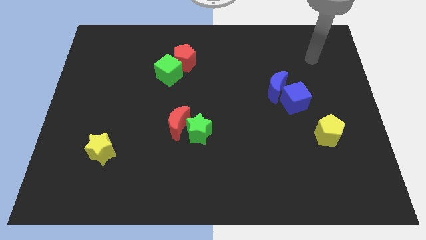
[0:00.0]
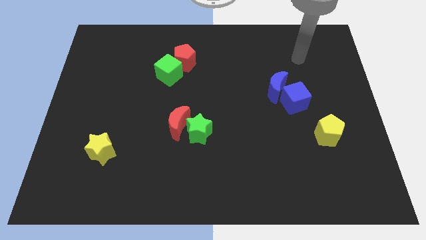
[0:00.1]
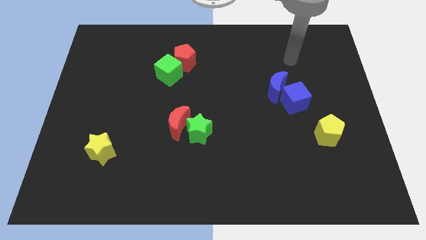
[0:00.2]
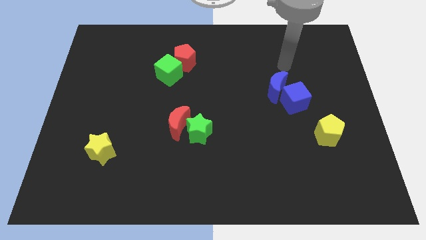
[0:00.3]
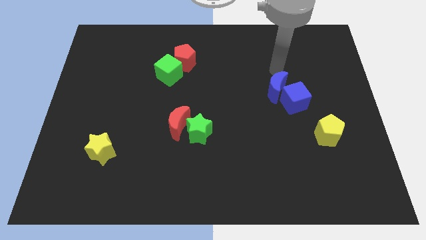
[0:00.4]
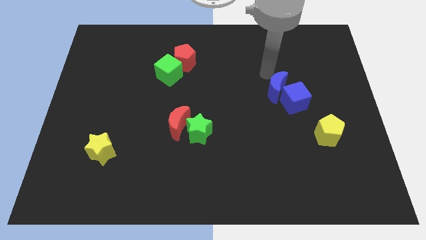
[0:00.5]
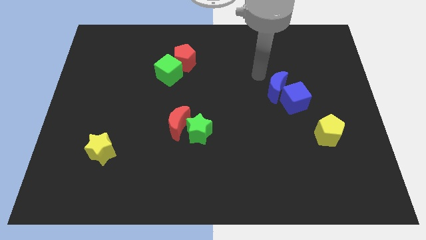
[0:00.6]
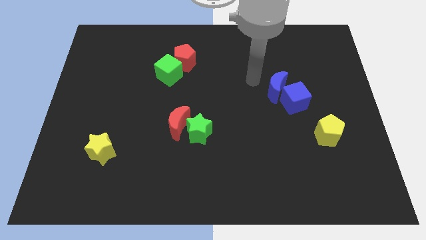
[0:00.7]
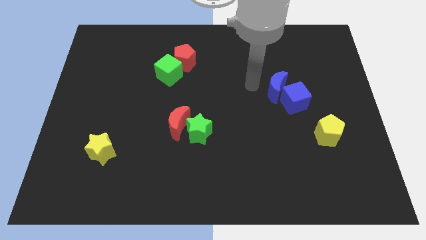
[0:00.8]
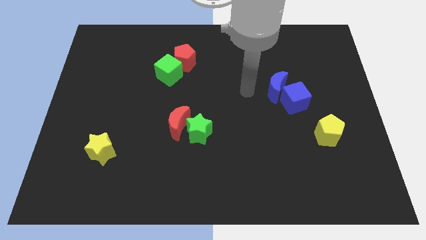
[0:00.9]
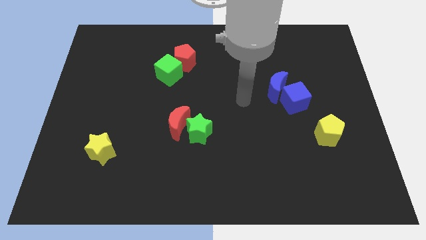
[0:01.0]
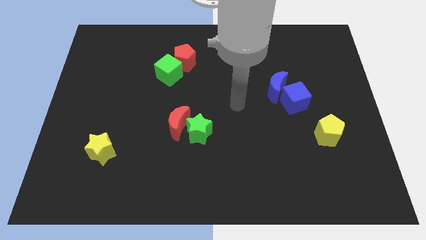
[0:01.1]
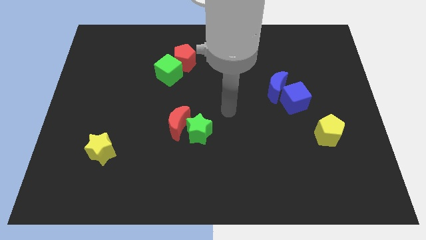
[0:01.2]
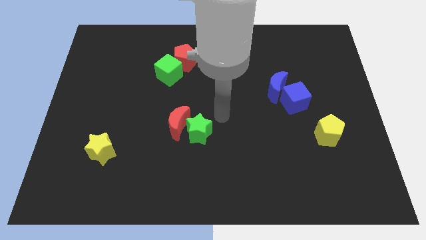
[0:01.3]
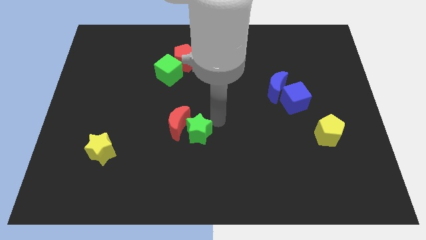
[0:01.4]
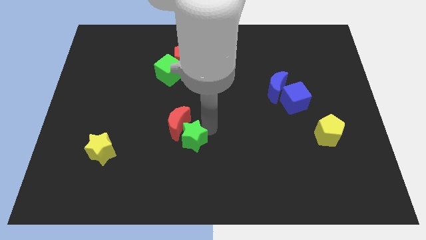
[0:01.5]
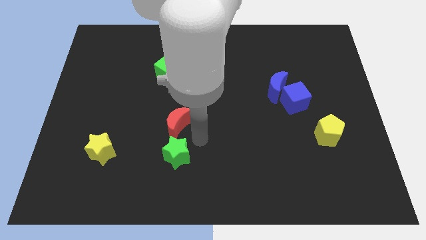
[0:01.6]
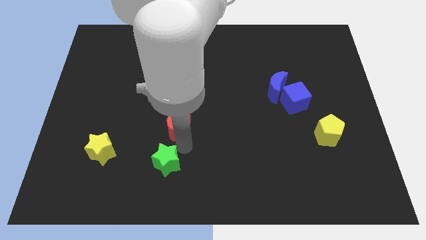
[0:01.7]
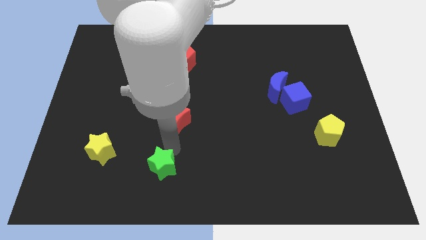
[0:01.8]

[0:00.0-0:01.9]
move the red moon away from the green star

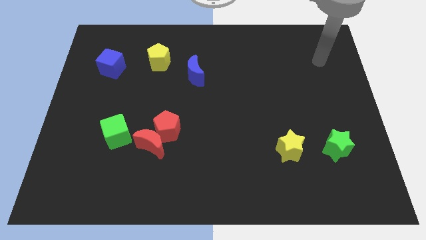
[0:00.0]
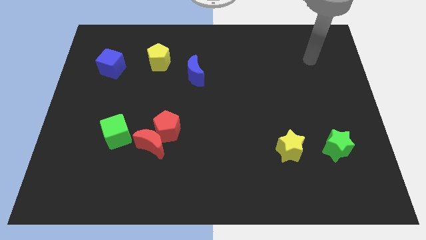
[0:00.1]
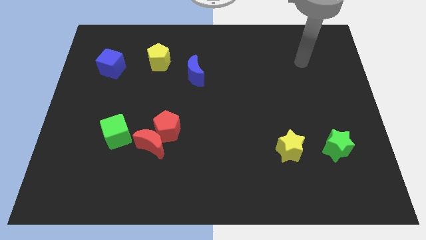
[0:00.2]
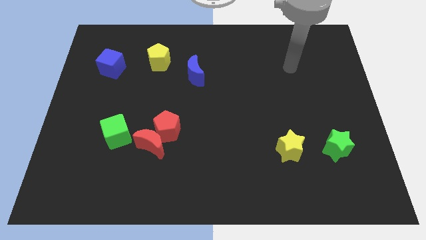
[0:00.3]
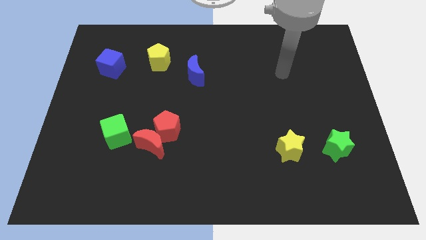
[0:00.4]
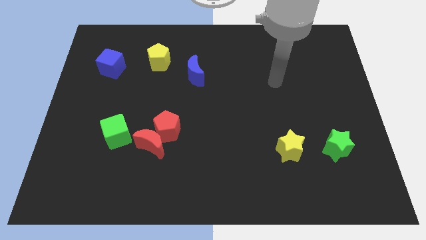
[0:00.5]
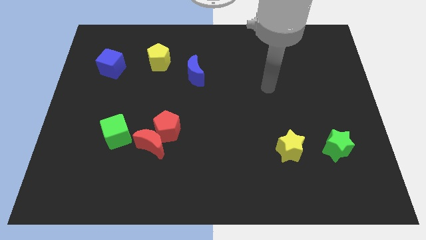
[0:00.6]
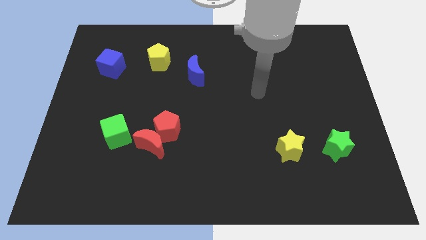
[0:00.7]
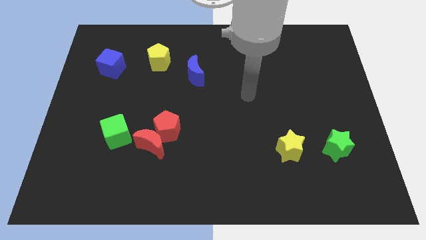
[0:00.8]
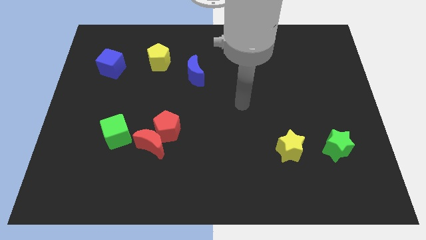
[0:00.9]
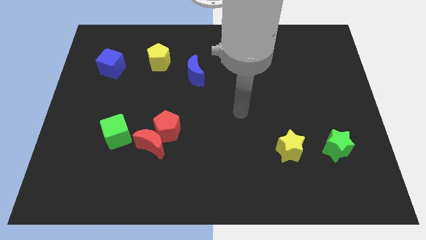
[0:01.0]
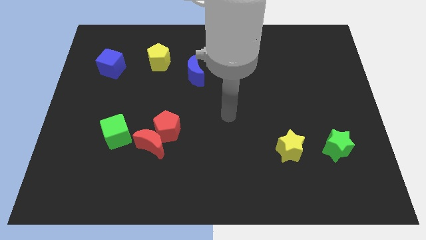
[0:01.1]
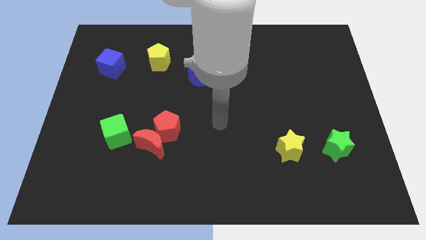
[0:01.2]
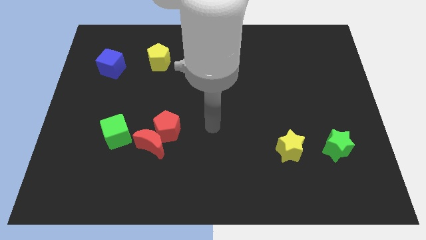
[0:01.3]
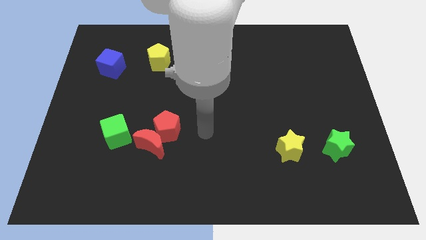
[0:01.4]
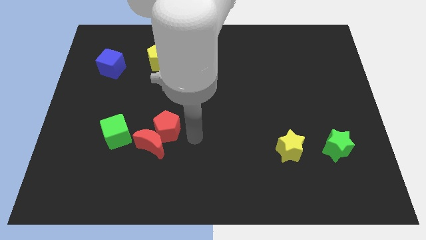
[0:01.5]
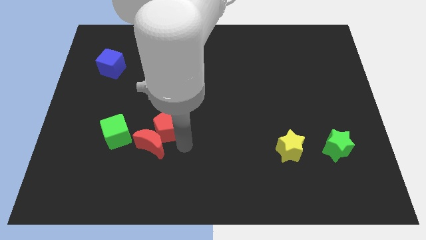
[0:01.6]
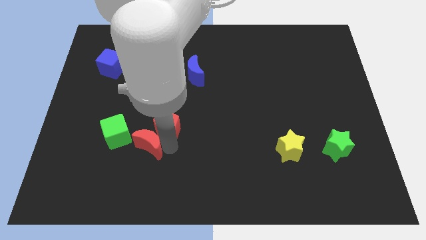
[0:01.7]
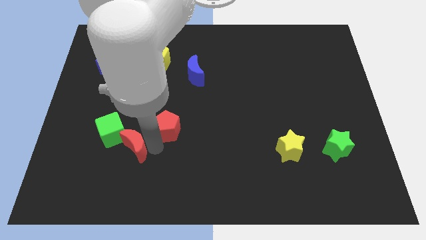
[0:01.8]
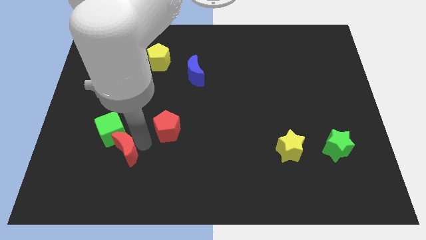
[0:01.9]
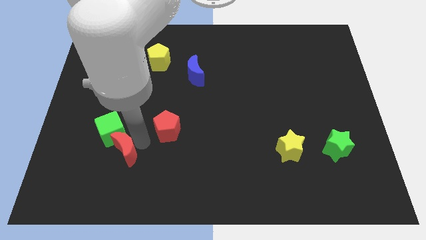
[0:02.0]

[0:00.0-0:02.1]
separate the red pentagon from the red moon

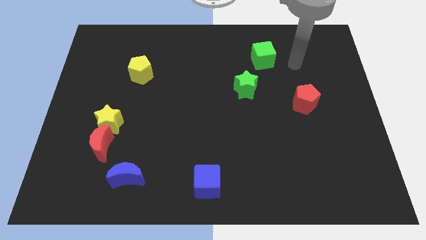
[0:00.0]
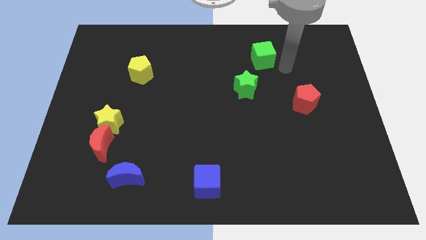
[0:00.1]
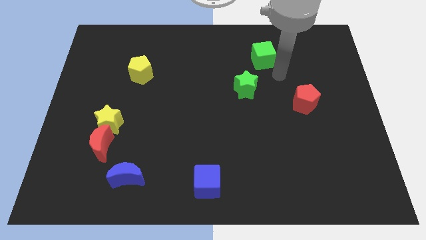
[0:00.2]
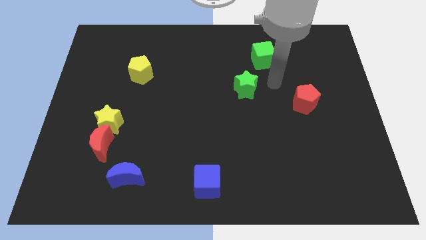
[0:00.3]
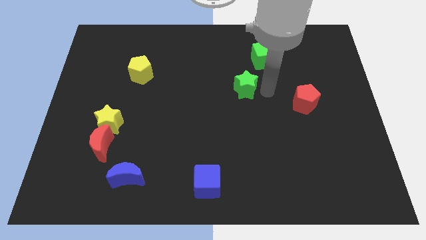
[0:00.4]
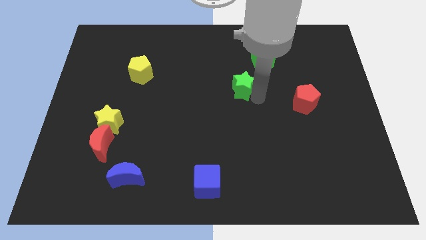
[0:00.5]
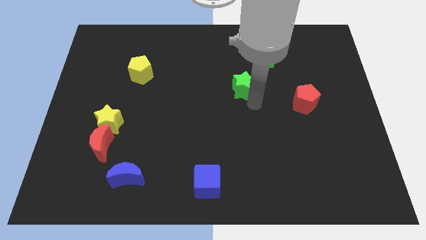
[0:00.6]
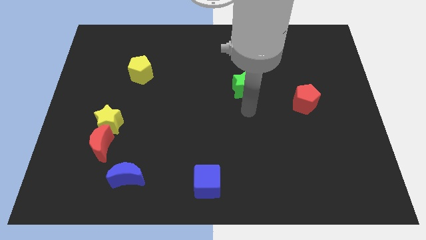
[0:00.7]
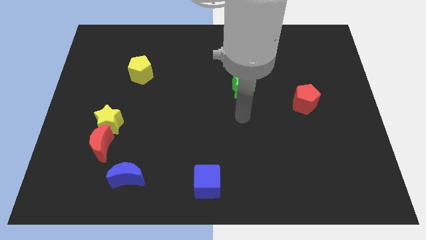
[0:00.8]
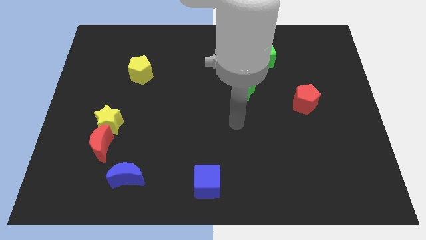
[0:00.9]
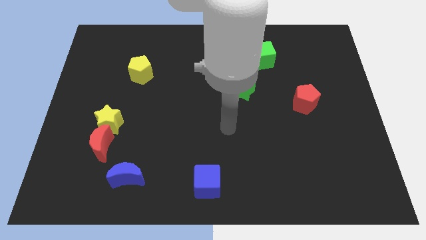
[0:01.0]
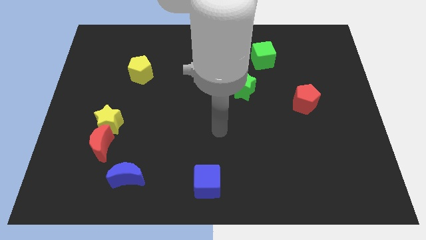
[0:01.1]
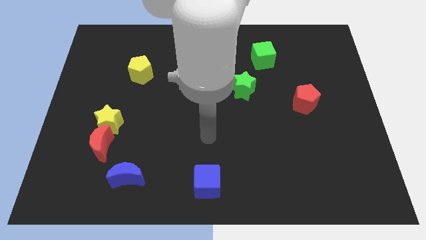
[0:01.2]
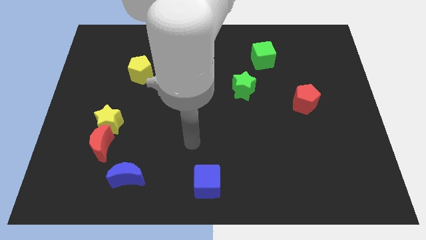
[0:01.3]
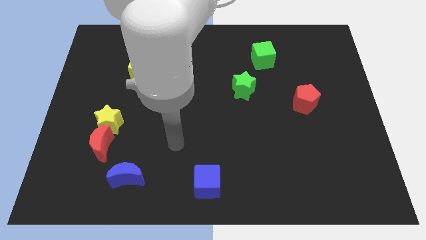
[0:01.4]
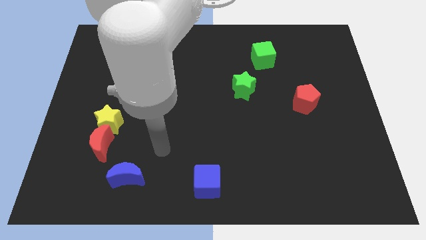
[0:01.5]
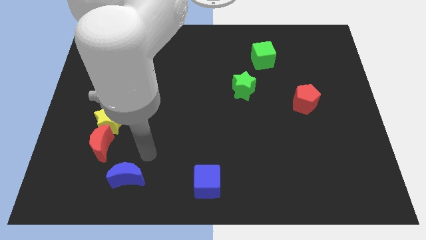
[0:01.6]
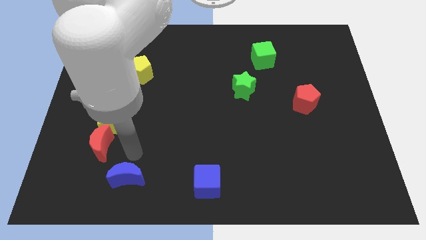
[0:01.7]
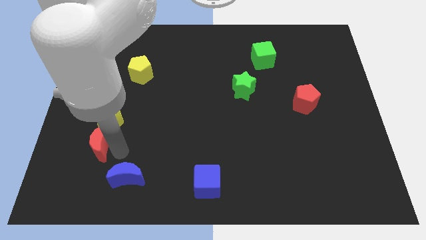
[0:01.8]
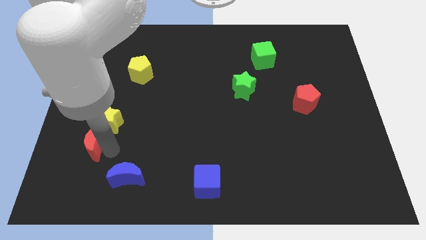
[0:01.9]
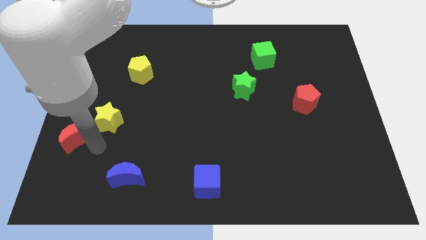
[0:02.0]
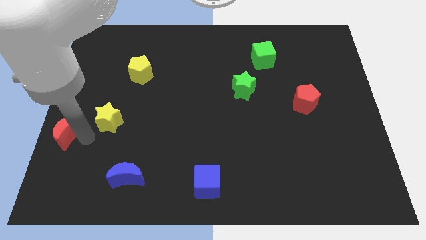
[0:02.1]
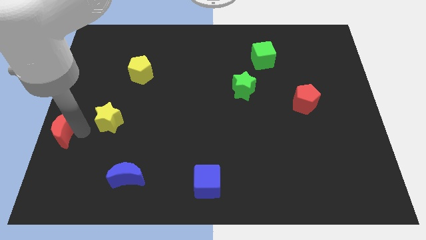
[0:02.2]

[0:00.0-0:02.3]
move the yellow star away from the red moon

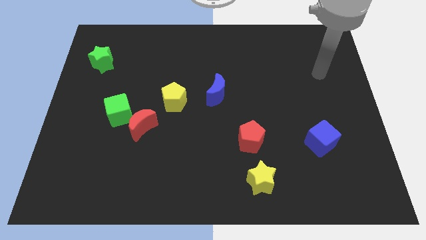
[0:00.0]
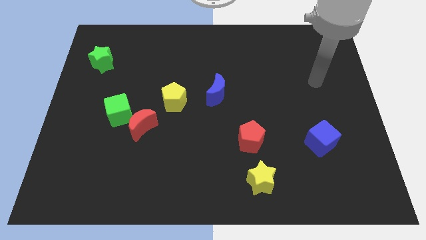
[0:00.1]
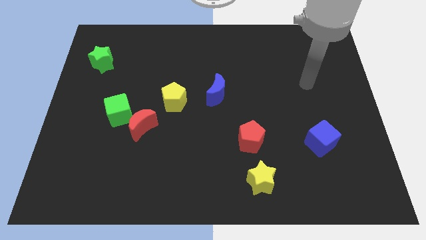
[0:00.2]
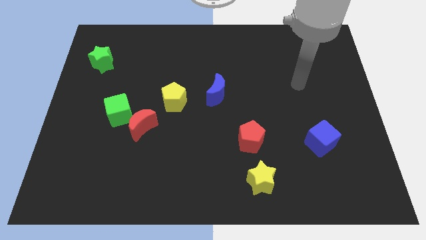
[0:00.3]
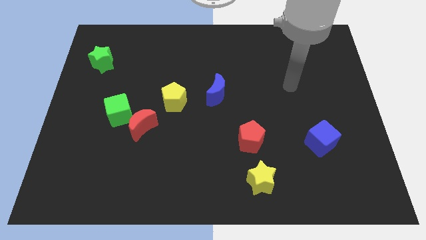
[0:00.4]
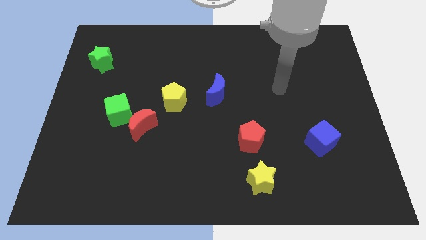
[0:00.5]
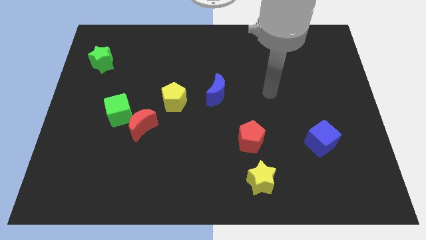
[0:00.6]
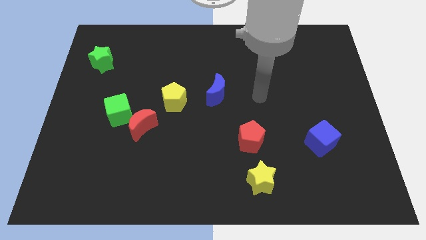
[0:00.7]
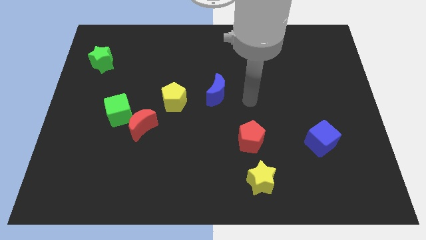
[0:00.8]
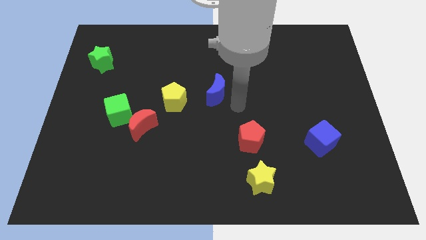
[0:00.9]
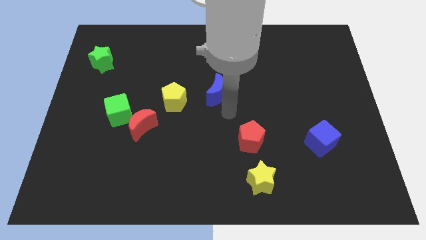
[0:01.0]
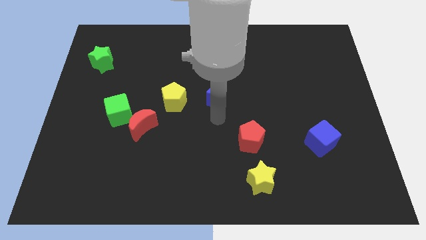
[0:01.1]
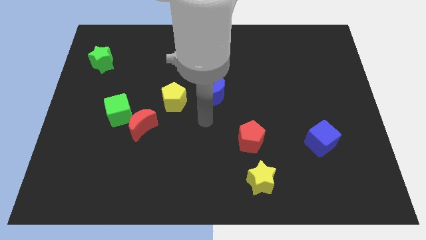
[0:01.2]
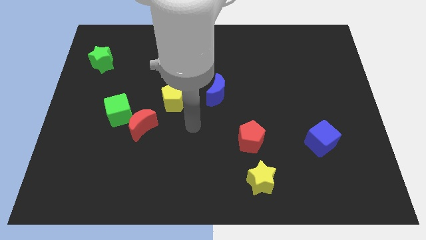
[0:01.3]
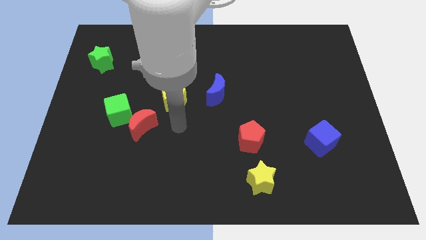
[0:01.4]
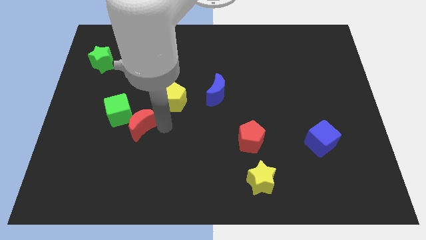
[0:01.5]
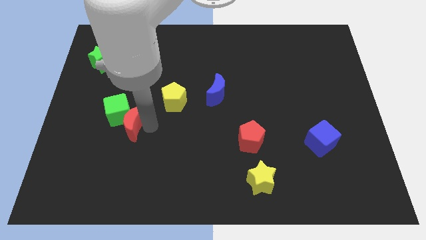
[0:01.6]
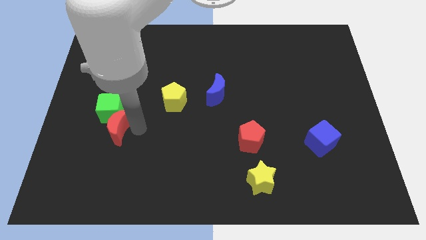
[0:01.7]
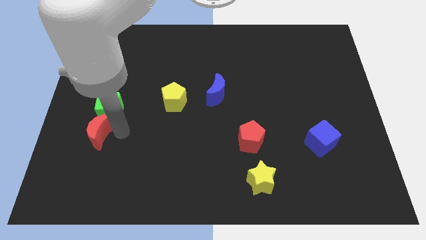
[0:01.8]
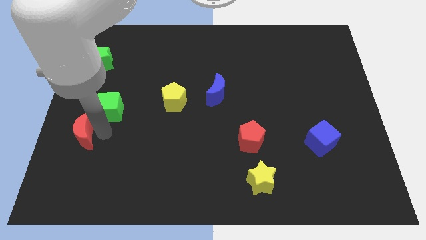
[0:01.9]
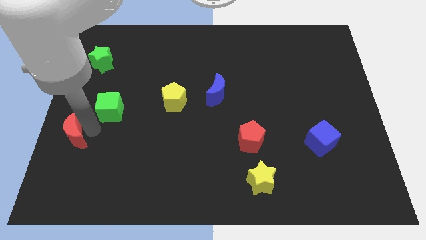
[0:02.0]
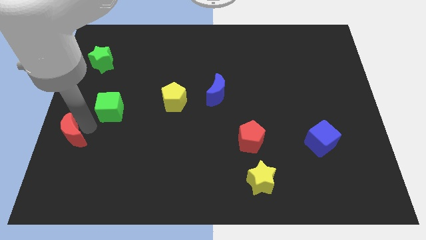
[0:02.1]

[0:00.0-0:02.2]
pull the green cube apart from the red moon

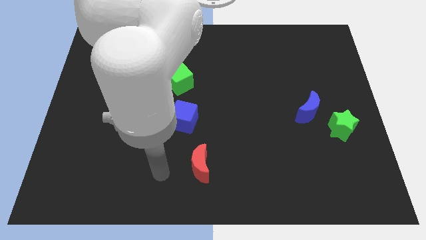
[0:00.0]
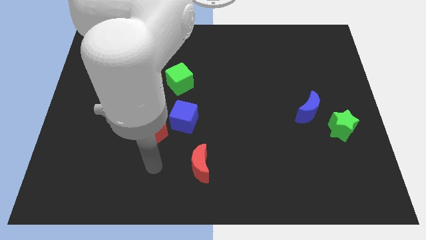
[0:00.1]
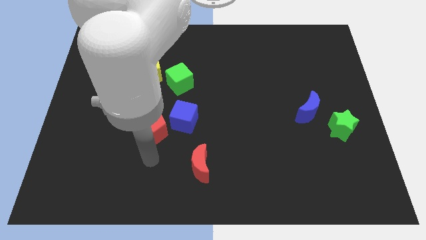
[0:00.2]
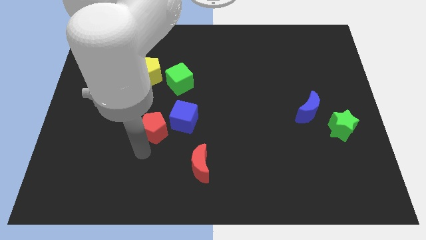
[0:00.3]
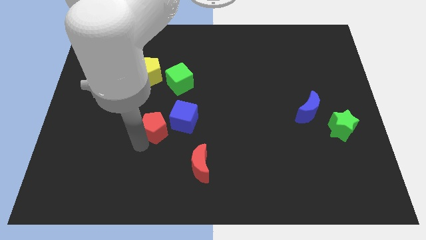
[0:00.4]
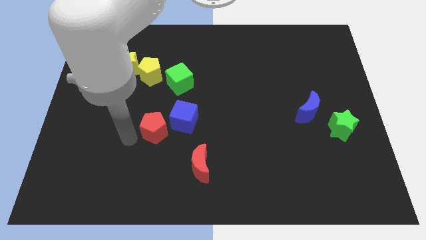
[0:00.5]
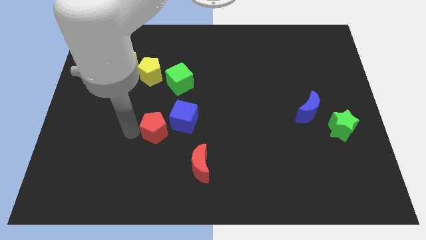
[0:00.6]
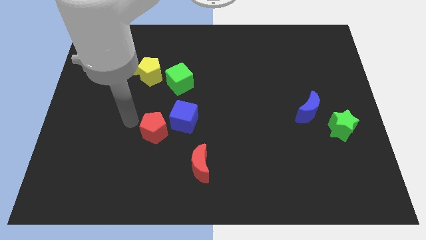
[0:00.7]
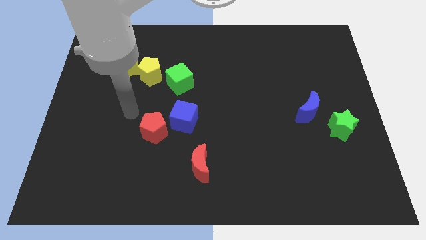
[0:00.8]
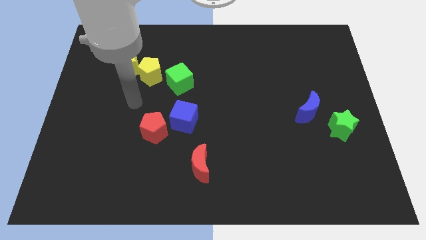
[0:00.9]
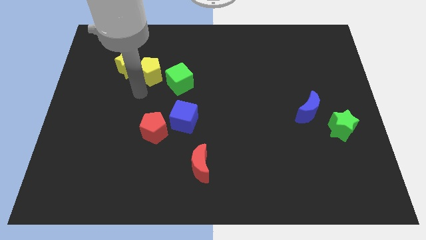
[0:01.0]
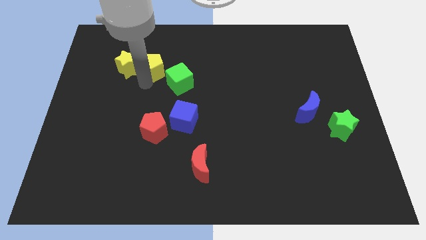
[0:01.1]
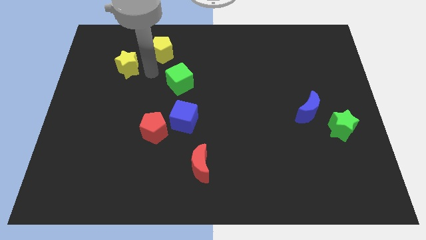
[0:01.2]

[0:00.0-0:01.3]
pull the yellow star apart from the yellow pentagon
